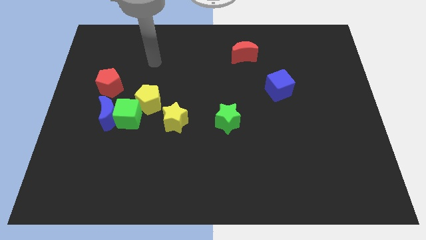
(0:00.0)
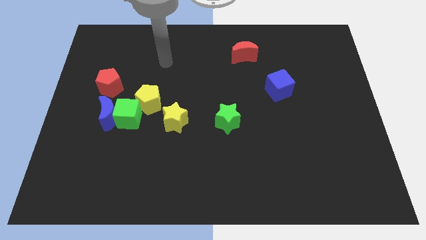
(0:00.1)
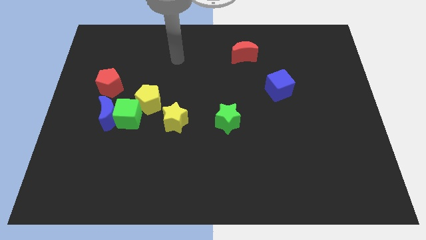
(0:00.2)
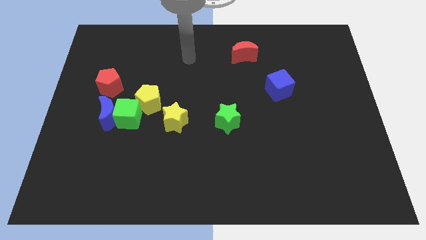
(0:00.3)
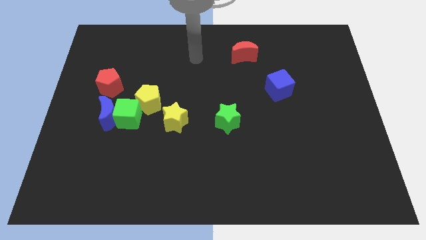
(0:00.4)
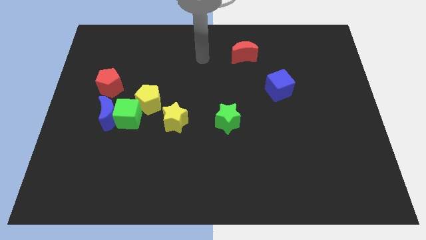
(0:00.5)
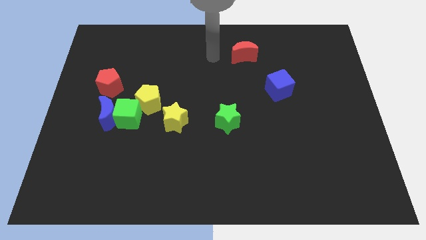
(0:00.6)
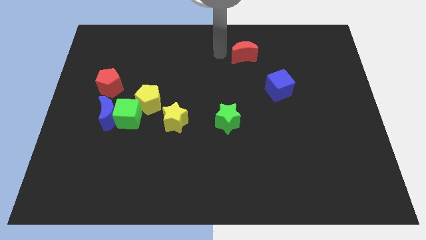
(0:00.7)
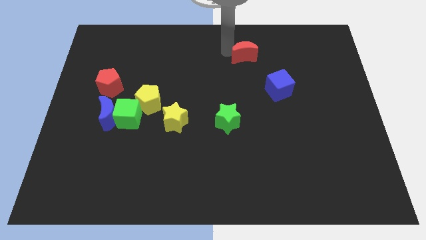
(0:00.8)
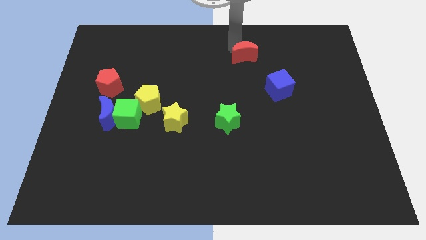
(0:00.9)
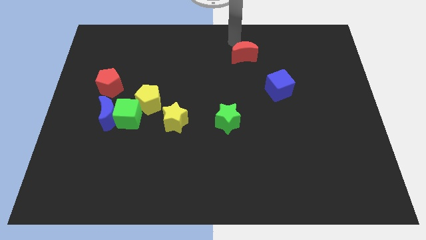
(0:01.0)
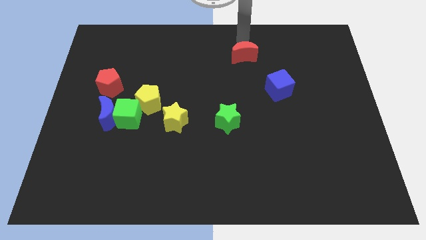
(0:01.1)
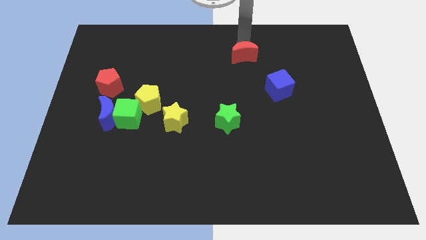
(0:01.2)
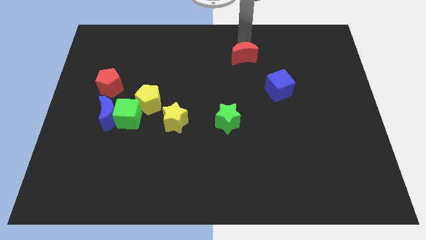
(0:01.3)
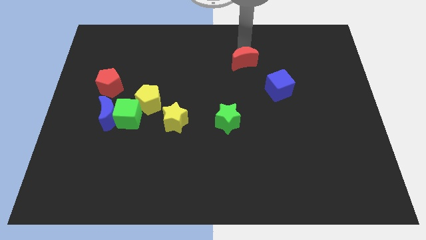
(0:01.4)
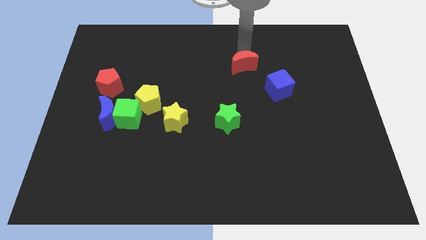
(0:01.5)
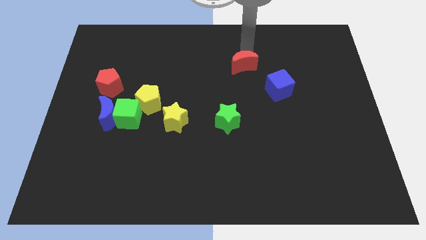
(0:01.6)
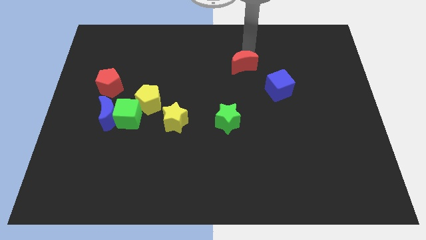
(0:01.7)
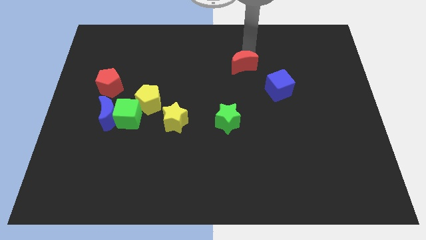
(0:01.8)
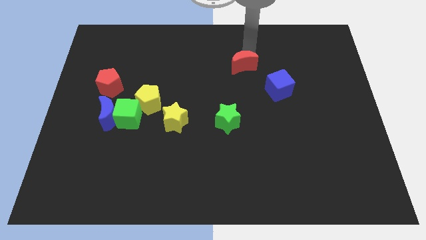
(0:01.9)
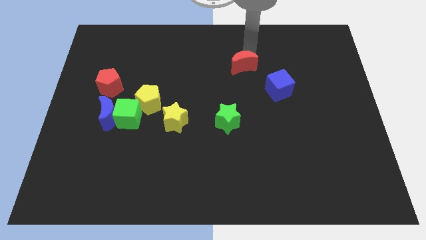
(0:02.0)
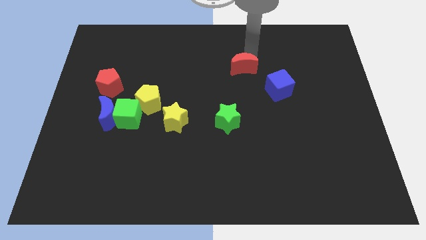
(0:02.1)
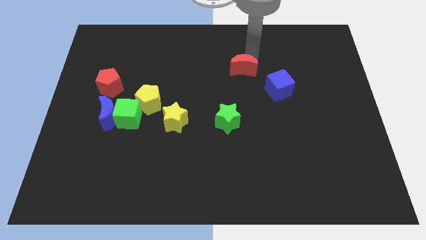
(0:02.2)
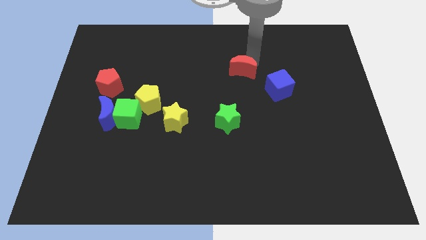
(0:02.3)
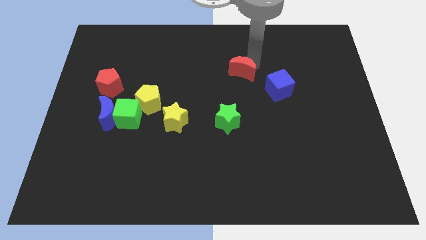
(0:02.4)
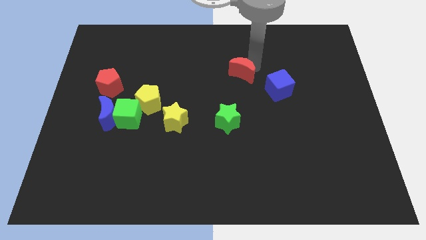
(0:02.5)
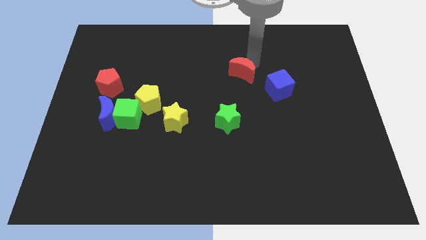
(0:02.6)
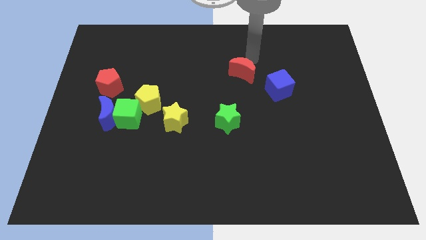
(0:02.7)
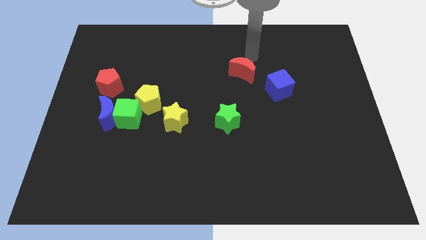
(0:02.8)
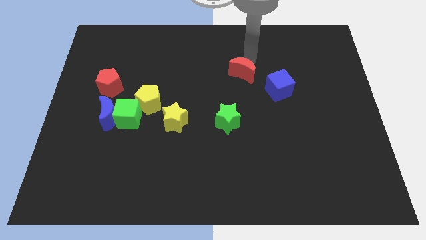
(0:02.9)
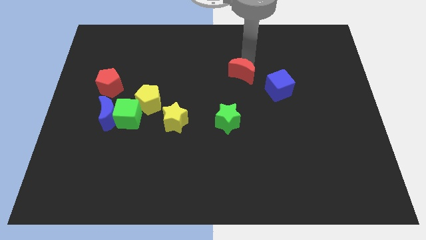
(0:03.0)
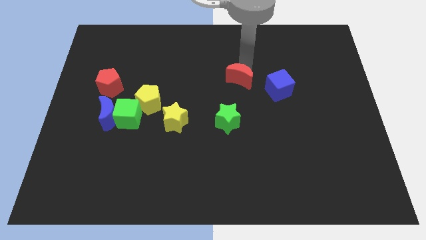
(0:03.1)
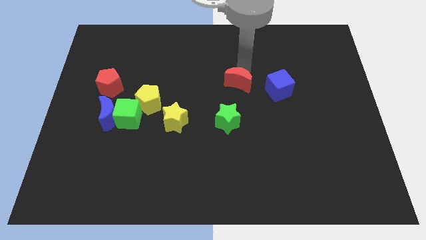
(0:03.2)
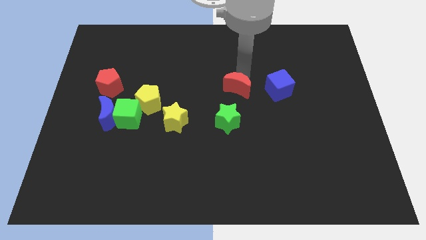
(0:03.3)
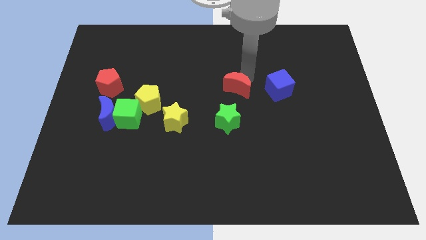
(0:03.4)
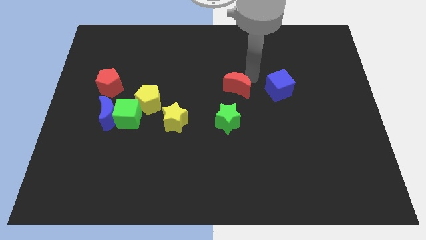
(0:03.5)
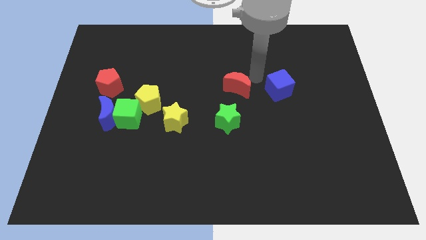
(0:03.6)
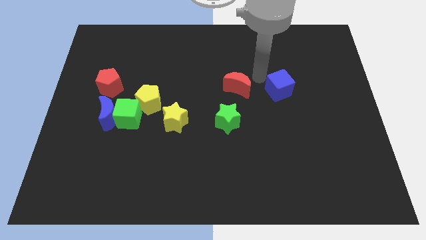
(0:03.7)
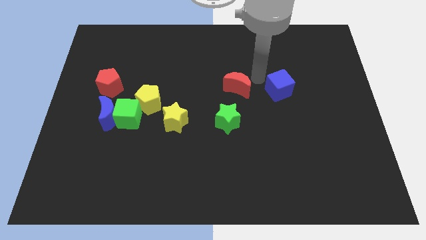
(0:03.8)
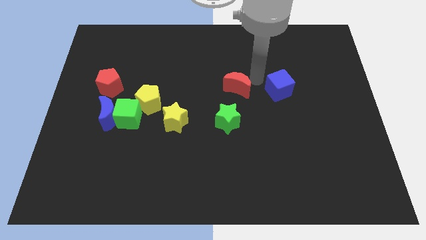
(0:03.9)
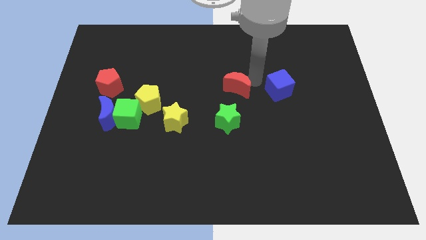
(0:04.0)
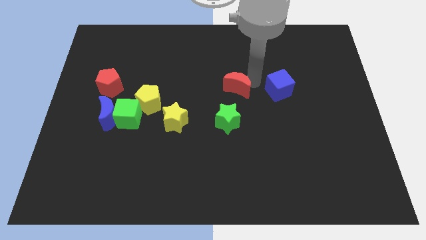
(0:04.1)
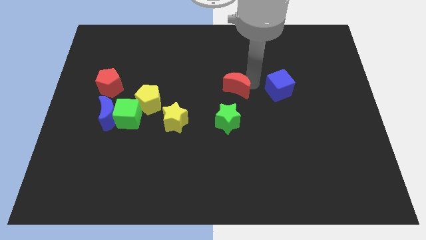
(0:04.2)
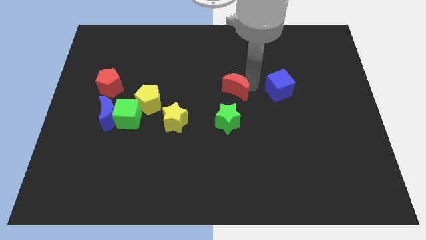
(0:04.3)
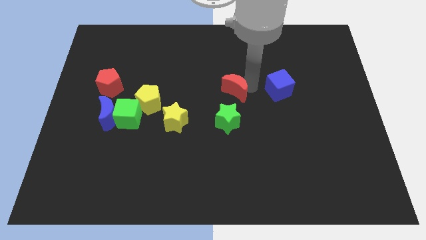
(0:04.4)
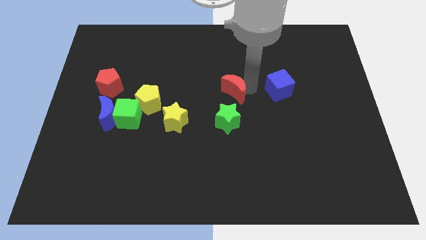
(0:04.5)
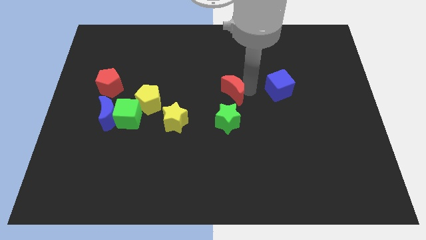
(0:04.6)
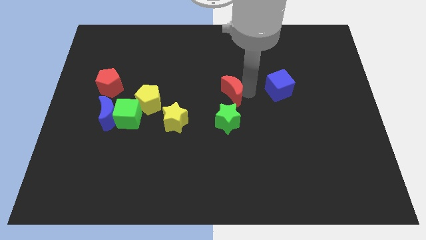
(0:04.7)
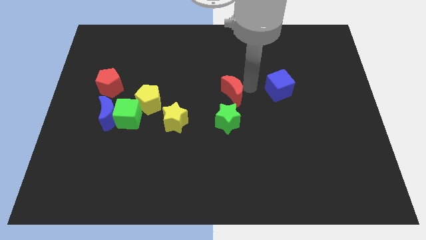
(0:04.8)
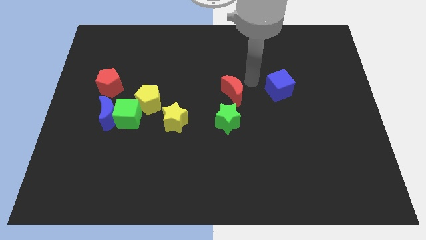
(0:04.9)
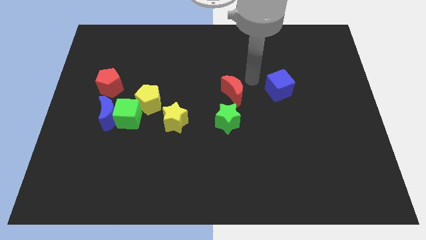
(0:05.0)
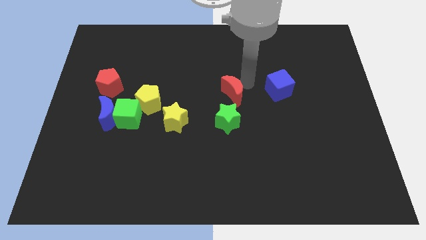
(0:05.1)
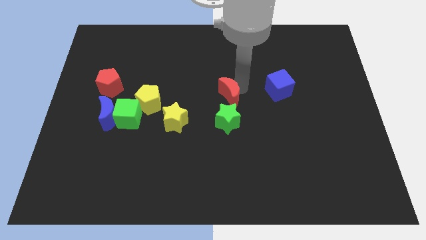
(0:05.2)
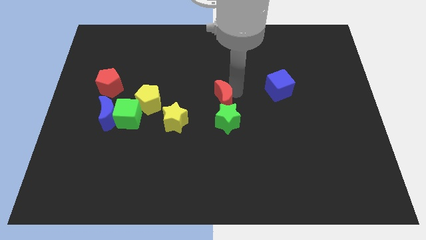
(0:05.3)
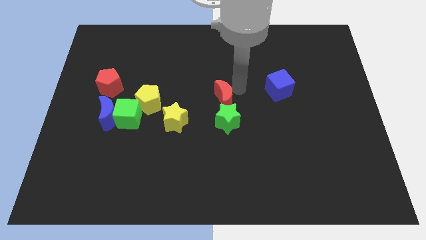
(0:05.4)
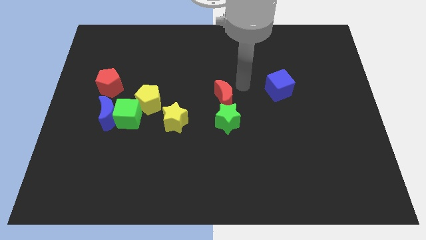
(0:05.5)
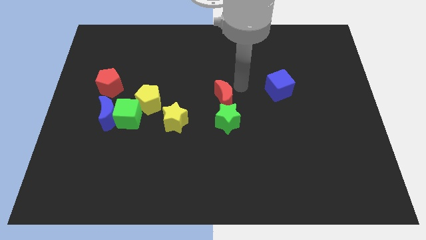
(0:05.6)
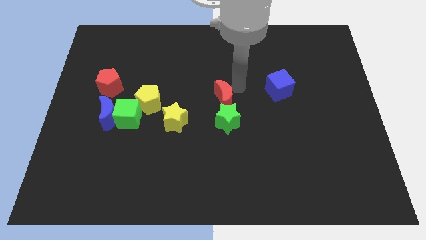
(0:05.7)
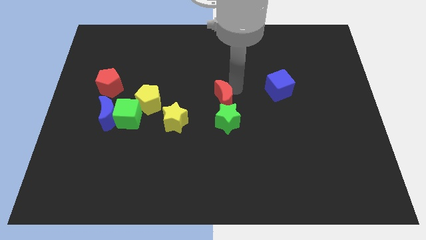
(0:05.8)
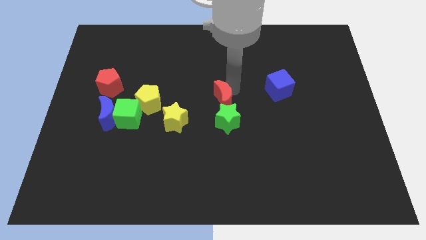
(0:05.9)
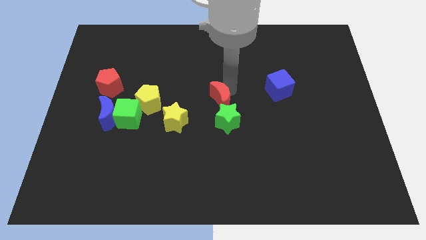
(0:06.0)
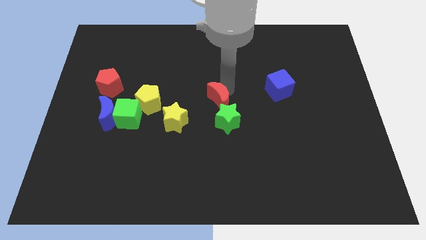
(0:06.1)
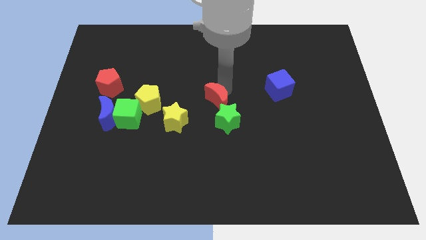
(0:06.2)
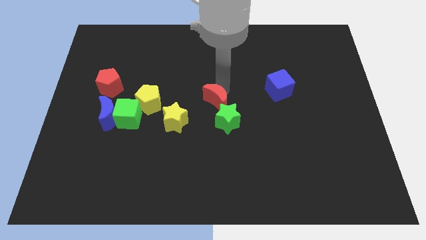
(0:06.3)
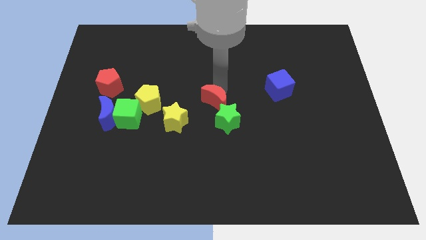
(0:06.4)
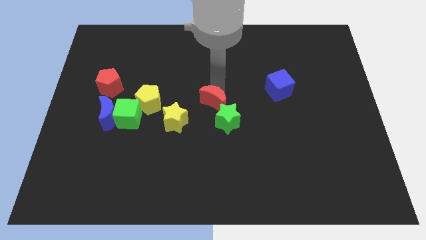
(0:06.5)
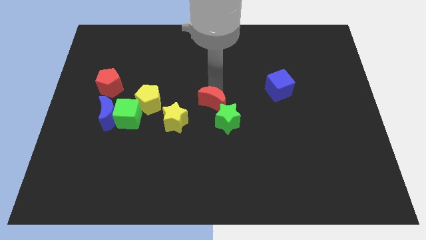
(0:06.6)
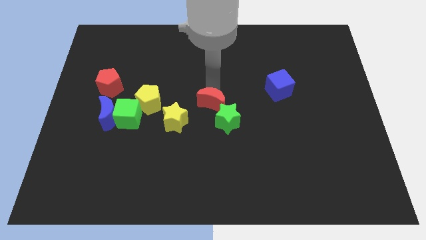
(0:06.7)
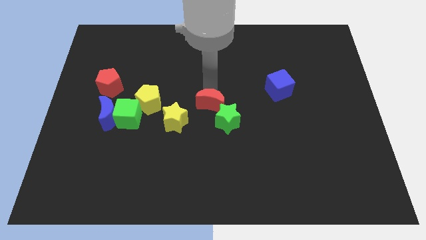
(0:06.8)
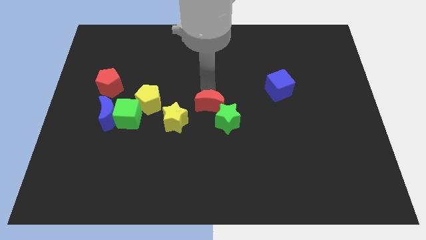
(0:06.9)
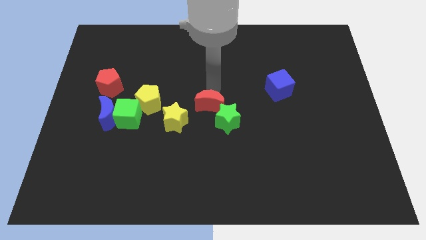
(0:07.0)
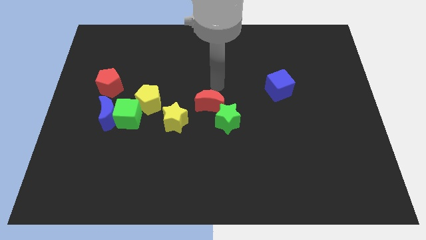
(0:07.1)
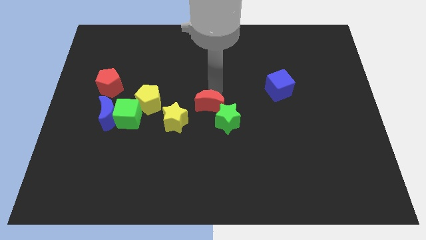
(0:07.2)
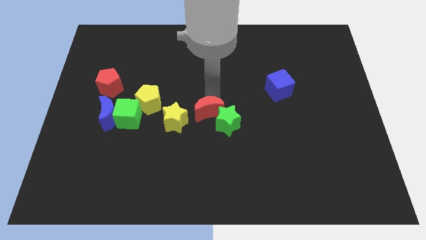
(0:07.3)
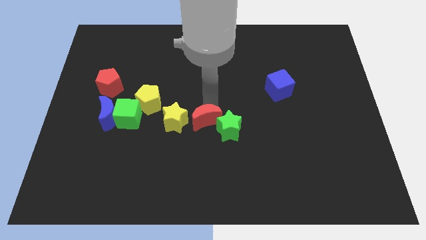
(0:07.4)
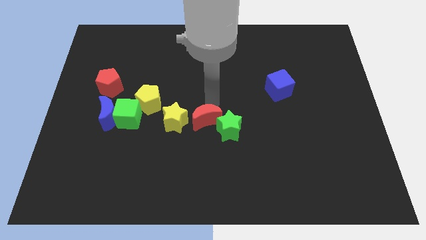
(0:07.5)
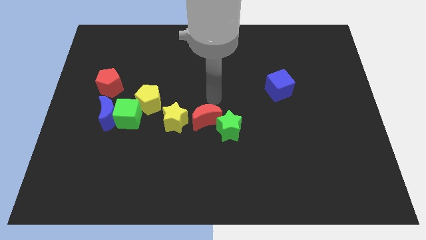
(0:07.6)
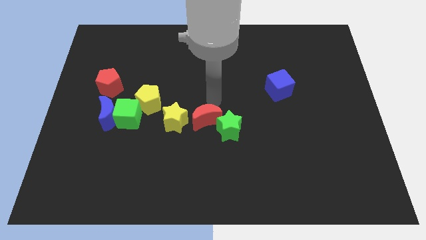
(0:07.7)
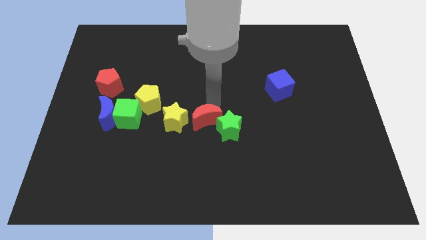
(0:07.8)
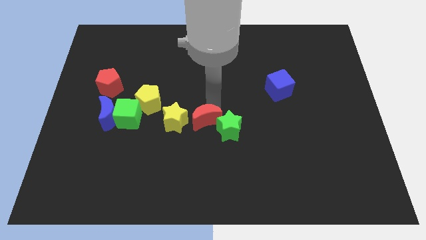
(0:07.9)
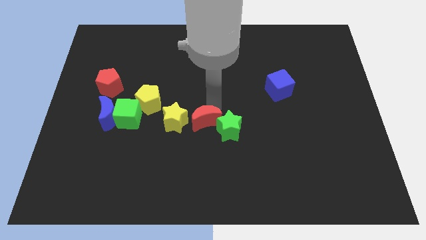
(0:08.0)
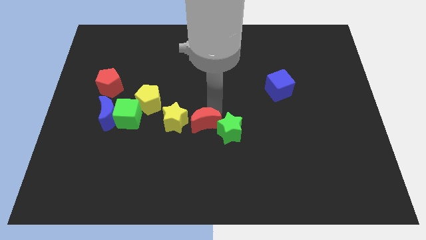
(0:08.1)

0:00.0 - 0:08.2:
move the red moon diagonally down and to the right of the yellow star
